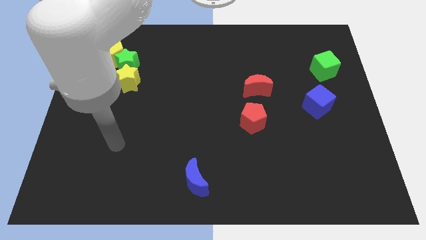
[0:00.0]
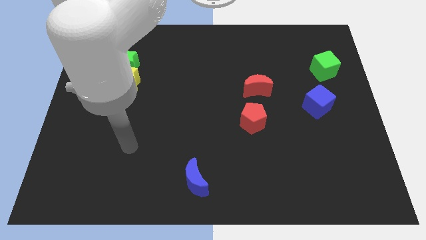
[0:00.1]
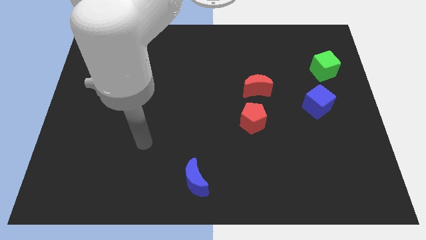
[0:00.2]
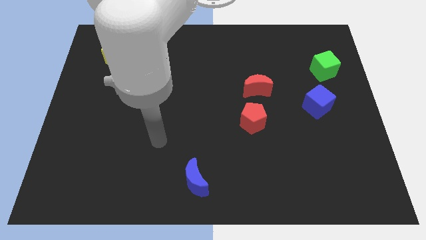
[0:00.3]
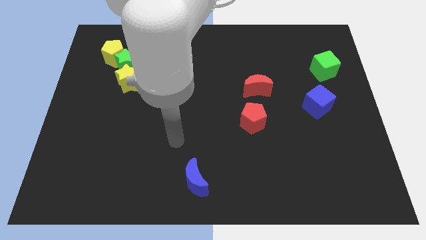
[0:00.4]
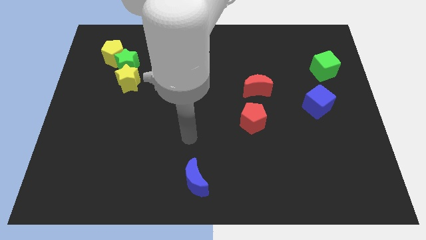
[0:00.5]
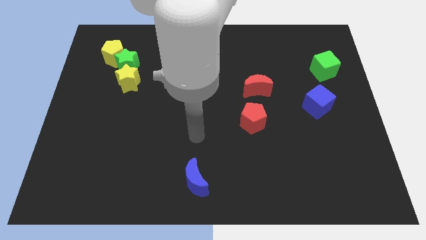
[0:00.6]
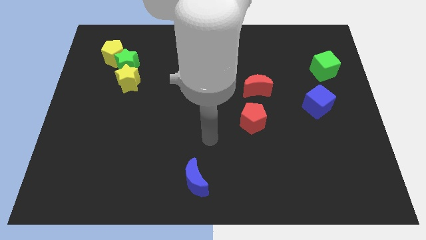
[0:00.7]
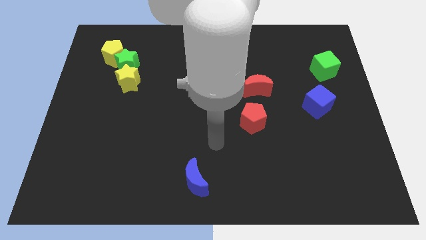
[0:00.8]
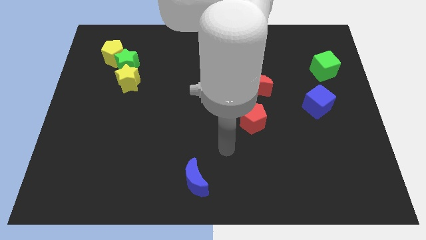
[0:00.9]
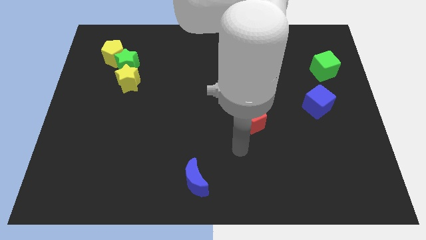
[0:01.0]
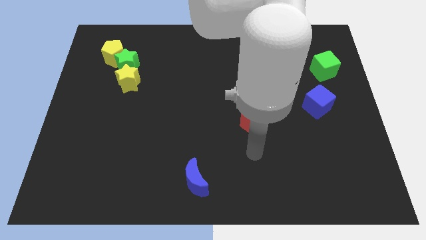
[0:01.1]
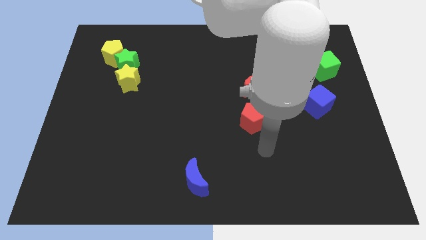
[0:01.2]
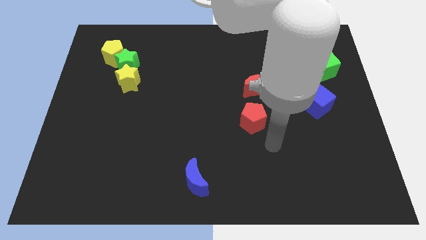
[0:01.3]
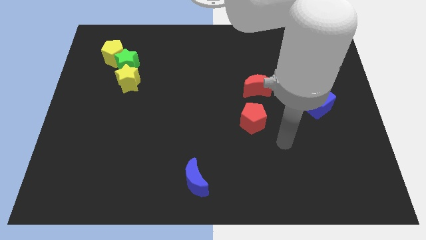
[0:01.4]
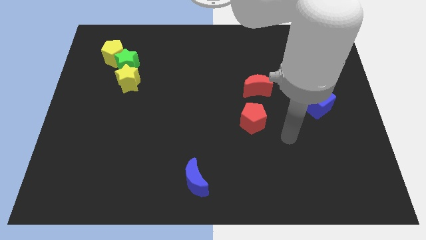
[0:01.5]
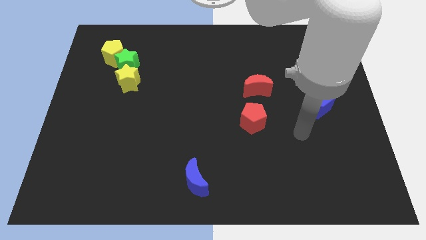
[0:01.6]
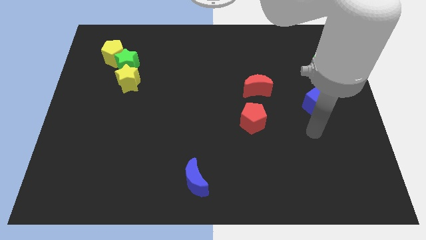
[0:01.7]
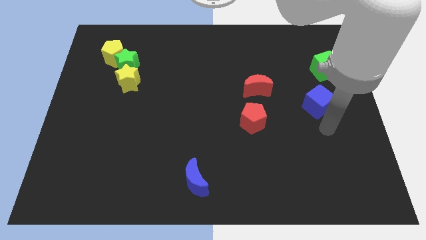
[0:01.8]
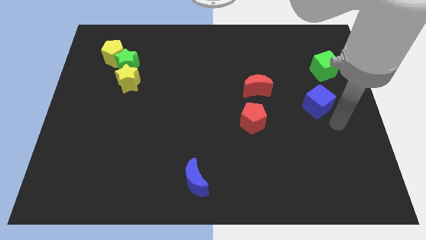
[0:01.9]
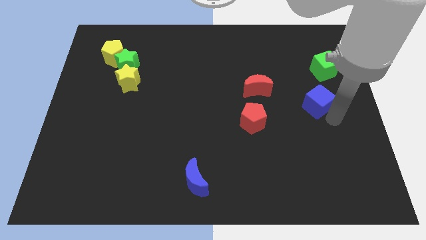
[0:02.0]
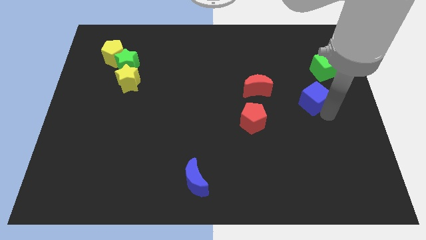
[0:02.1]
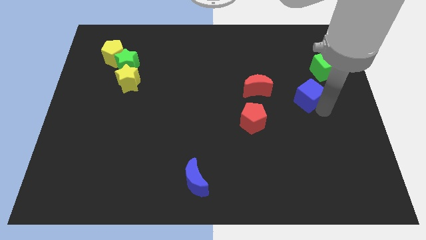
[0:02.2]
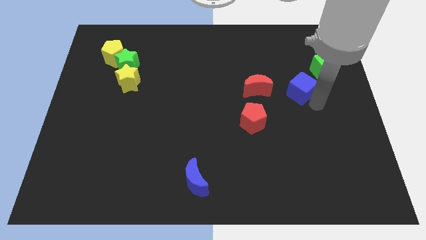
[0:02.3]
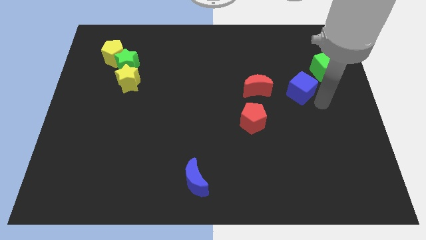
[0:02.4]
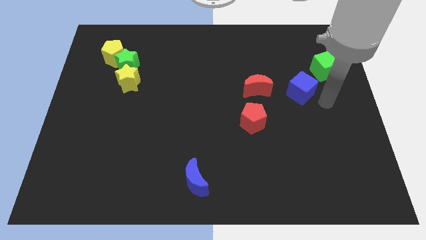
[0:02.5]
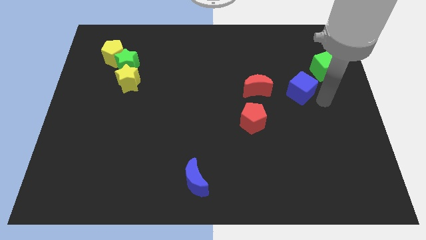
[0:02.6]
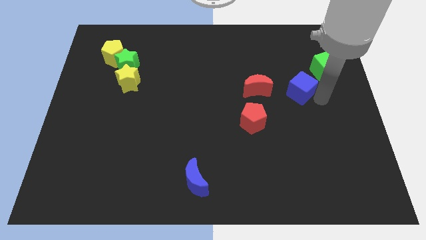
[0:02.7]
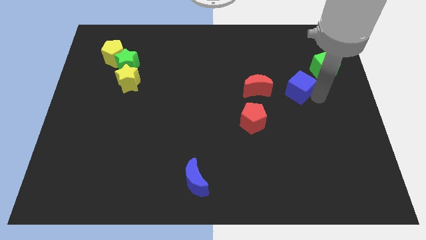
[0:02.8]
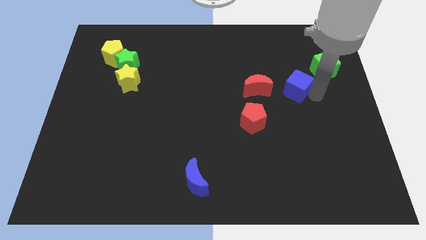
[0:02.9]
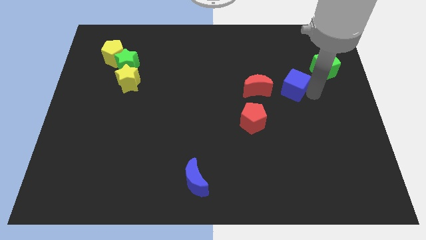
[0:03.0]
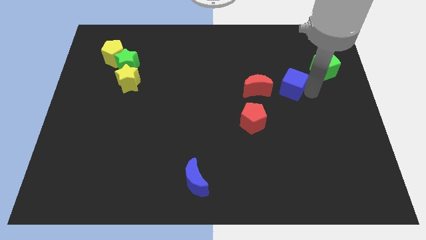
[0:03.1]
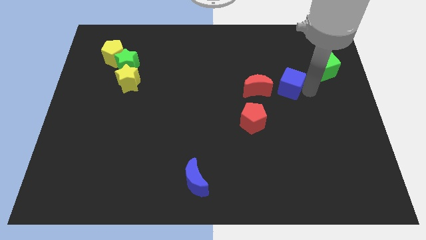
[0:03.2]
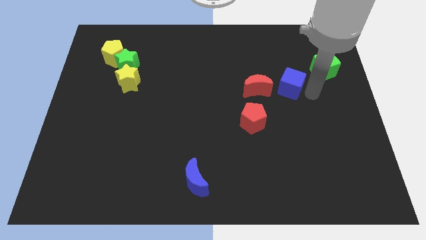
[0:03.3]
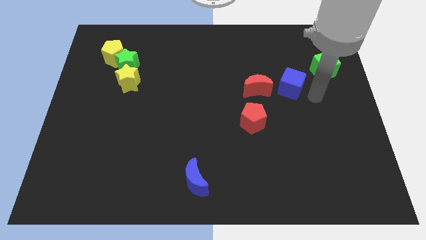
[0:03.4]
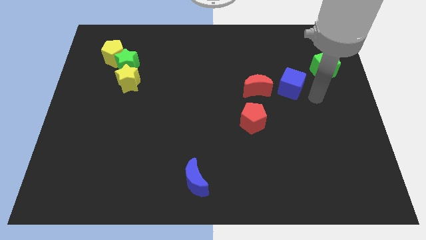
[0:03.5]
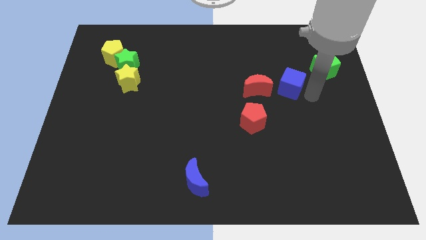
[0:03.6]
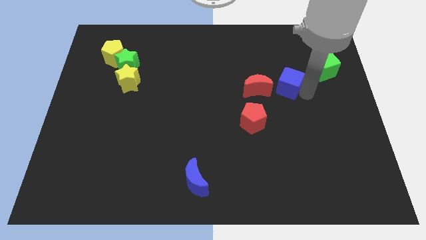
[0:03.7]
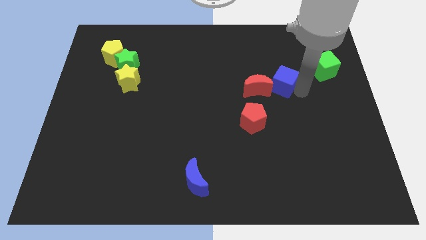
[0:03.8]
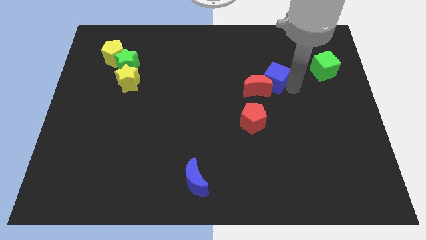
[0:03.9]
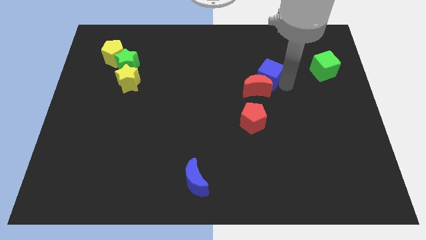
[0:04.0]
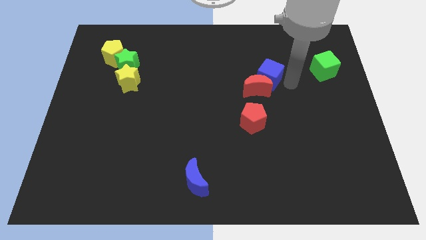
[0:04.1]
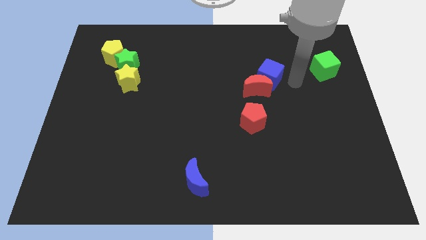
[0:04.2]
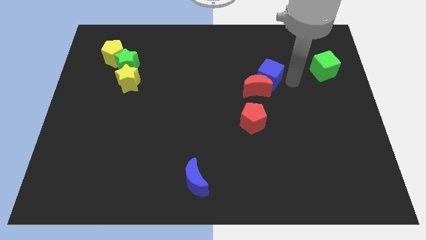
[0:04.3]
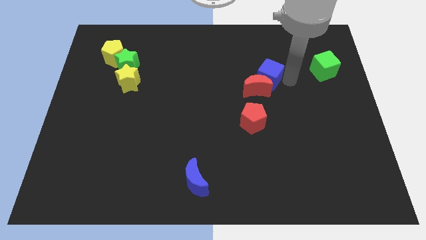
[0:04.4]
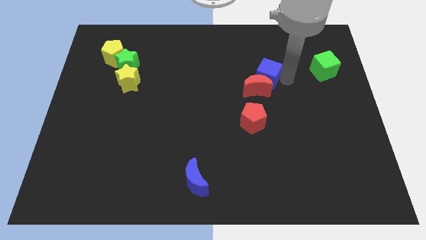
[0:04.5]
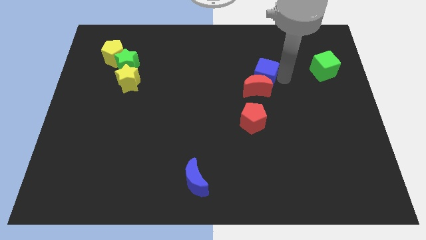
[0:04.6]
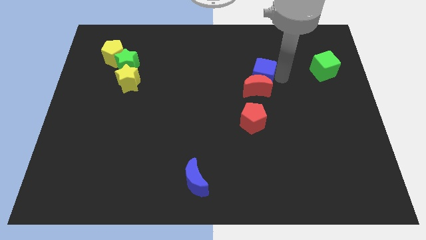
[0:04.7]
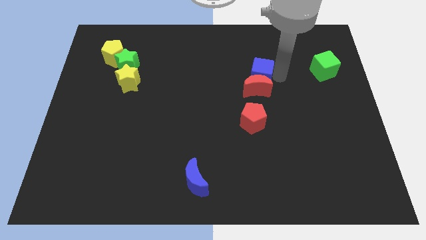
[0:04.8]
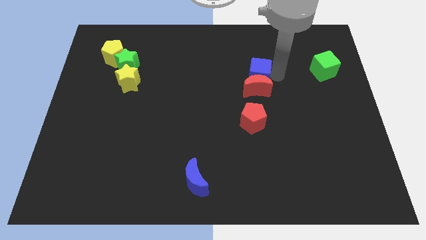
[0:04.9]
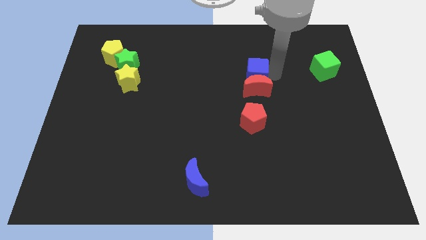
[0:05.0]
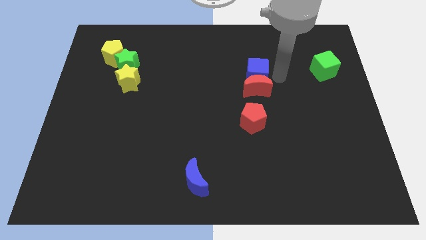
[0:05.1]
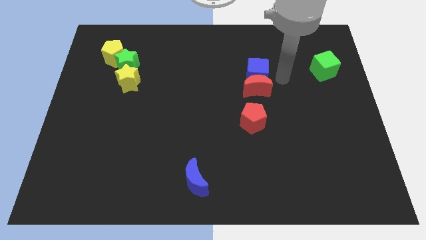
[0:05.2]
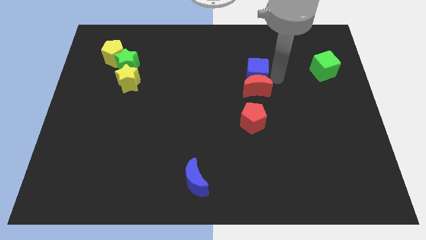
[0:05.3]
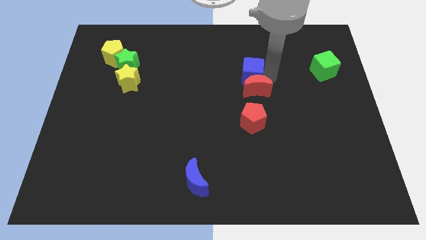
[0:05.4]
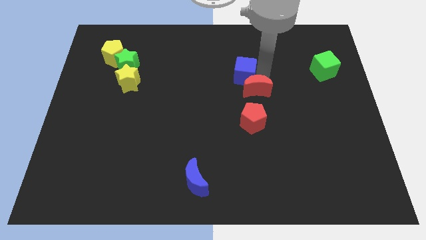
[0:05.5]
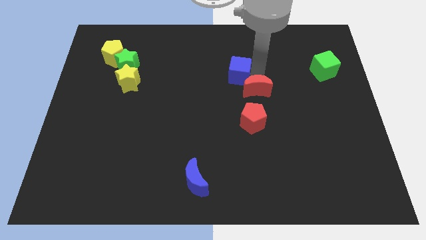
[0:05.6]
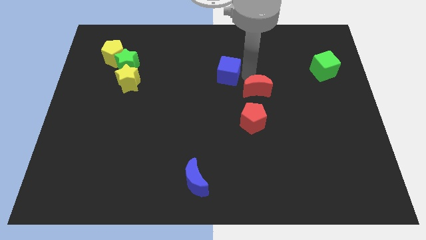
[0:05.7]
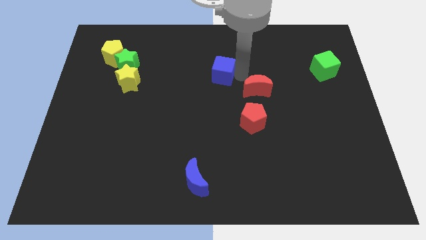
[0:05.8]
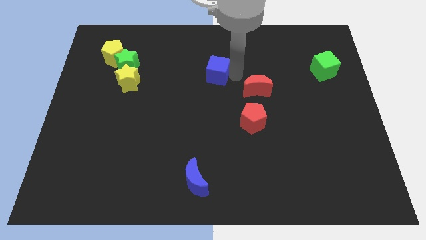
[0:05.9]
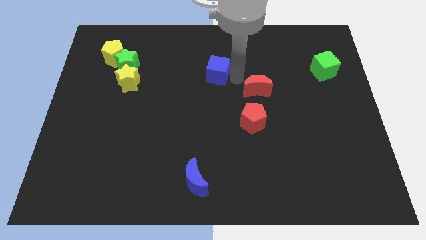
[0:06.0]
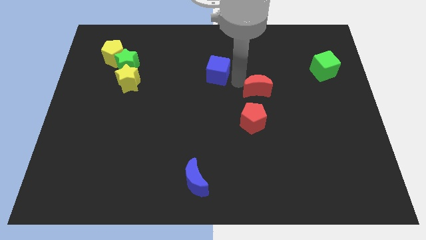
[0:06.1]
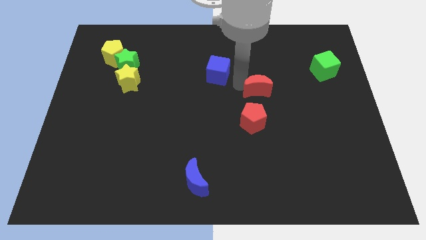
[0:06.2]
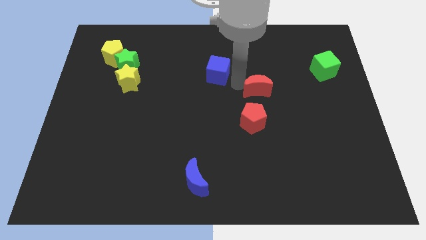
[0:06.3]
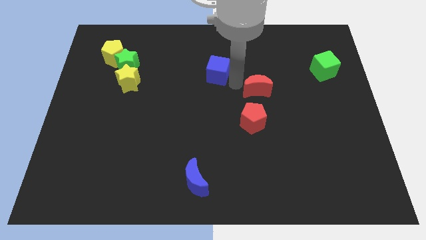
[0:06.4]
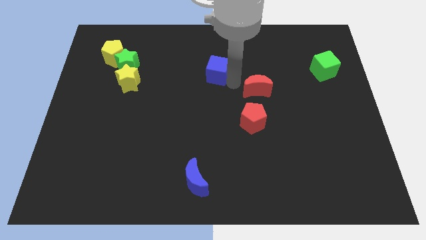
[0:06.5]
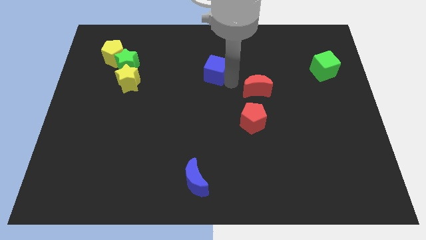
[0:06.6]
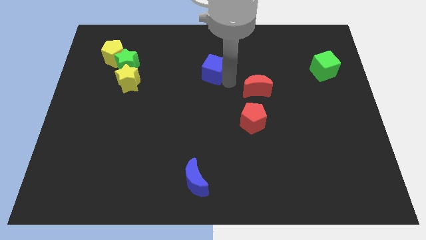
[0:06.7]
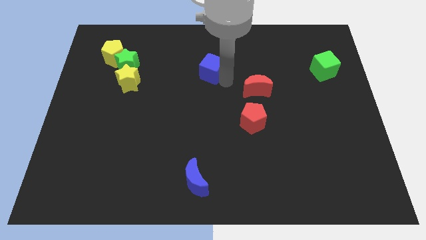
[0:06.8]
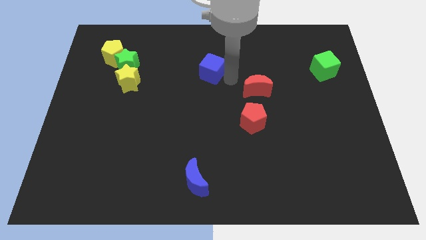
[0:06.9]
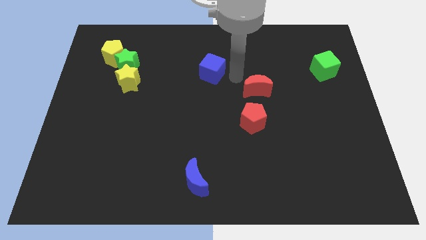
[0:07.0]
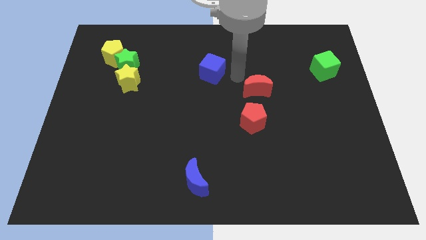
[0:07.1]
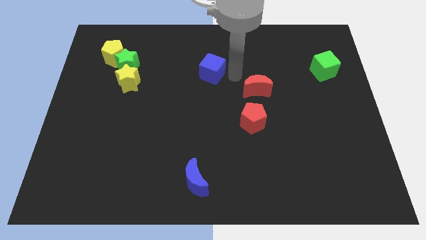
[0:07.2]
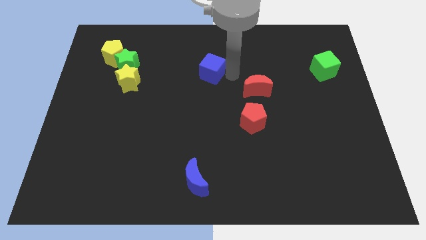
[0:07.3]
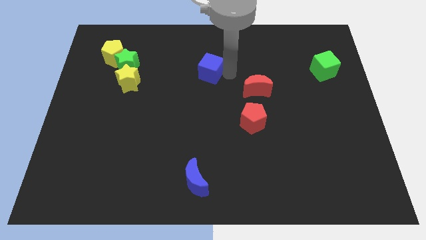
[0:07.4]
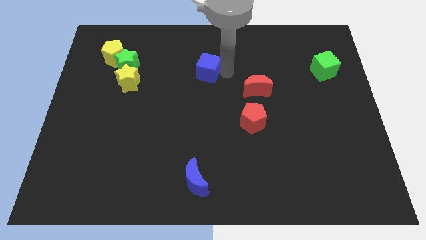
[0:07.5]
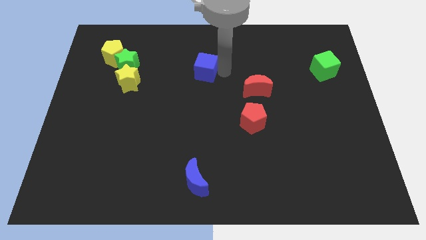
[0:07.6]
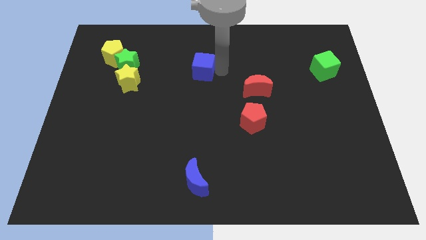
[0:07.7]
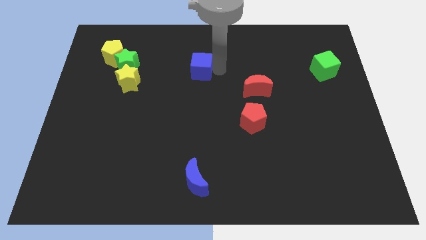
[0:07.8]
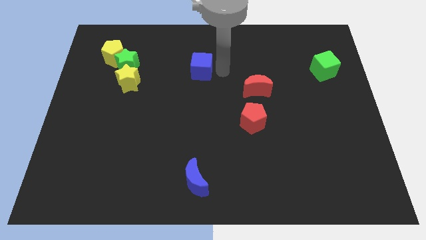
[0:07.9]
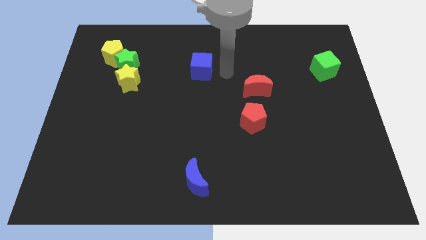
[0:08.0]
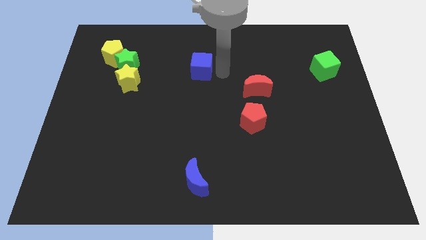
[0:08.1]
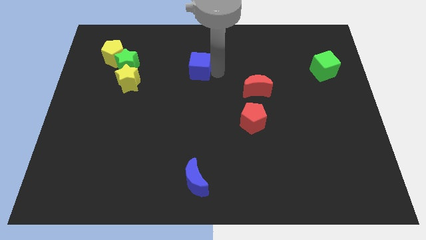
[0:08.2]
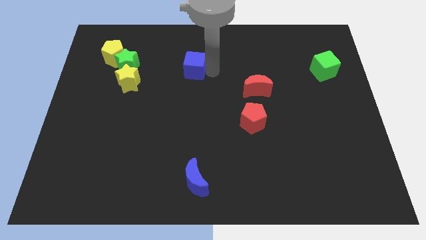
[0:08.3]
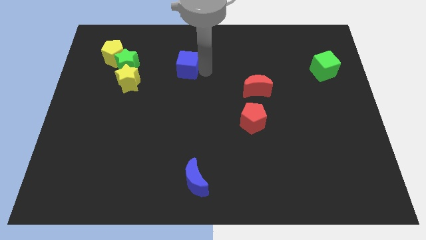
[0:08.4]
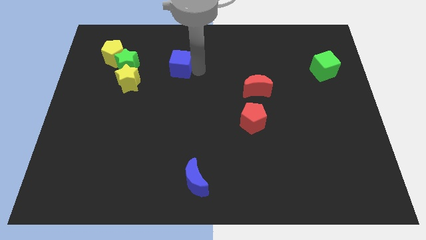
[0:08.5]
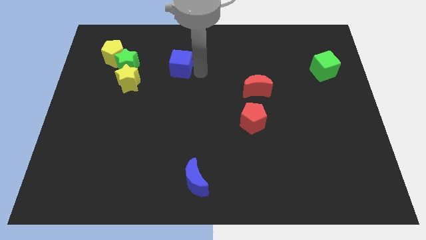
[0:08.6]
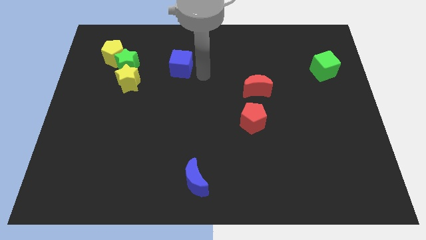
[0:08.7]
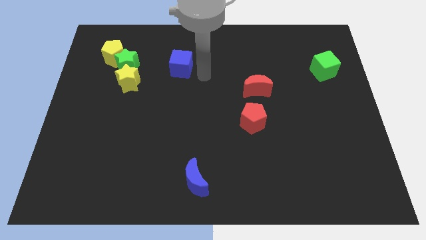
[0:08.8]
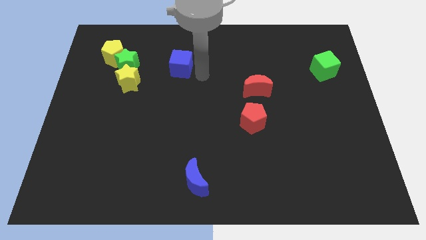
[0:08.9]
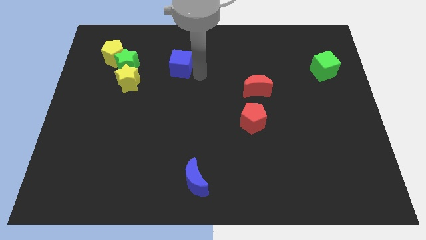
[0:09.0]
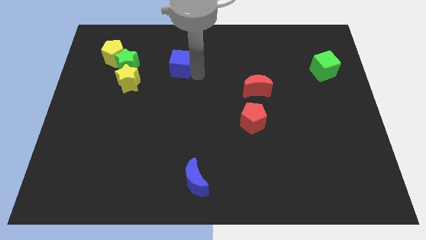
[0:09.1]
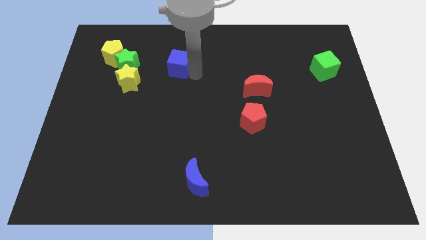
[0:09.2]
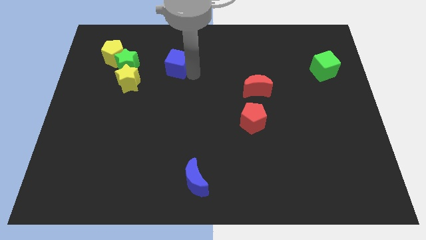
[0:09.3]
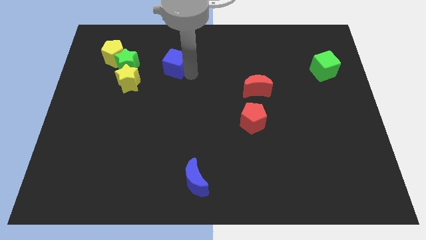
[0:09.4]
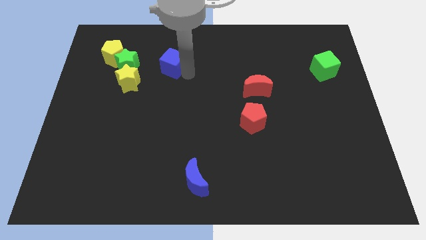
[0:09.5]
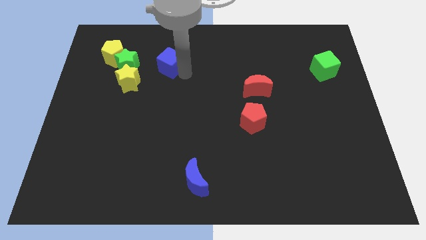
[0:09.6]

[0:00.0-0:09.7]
put the blue cube right of the yellow pentagon
